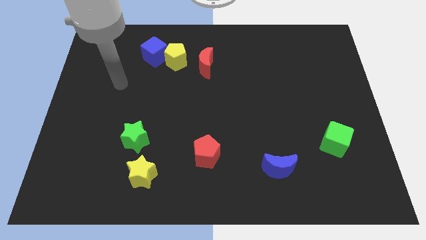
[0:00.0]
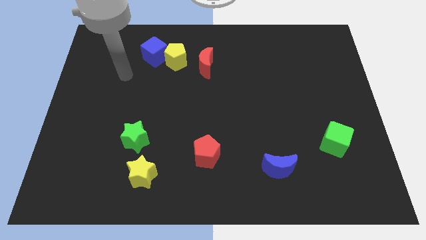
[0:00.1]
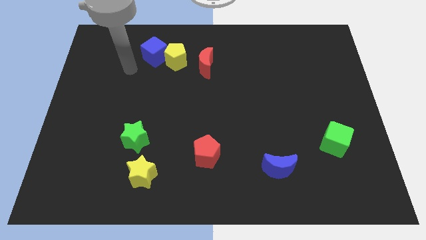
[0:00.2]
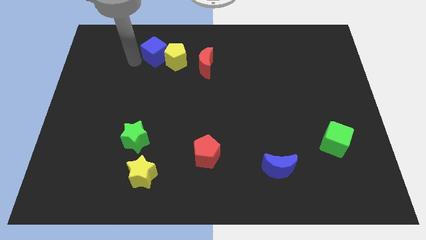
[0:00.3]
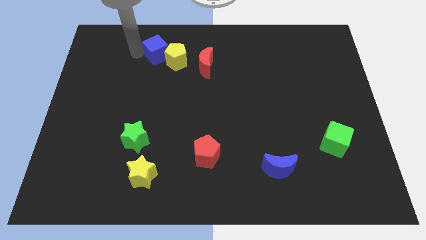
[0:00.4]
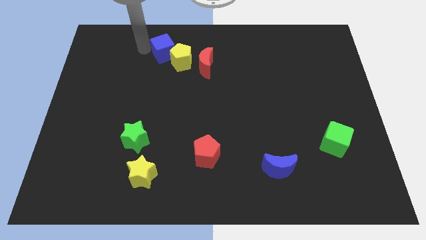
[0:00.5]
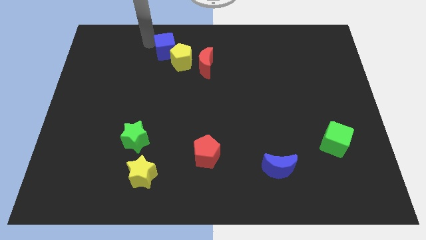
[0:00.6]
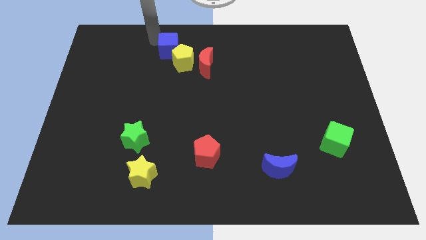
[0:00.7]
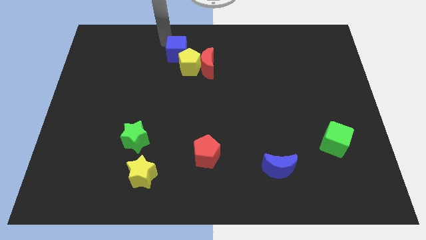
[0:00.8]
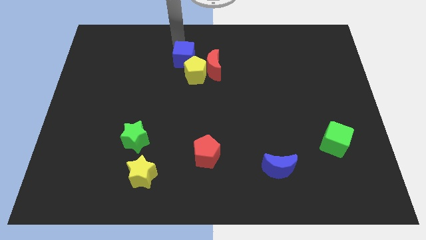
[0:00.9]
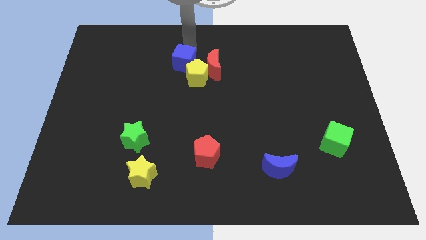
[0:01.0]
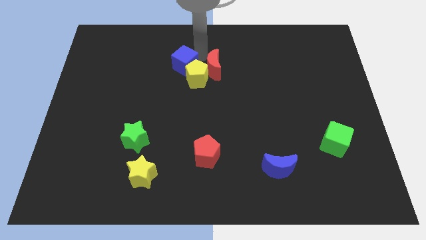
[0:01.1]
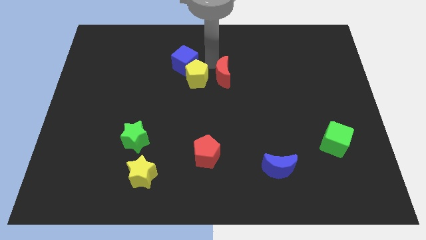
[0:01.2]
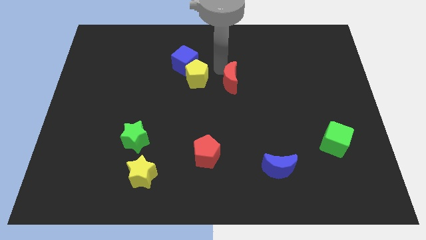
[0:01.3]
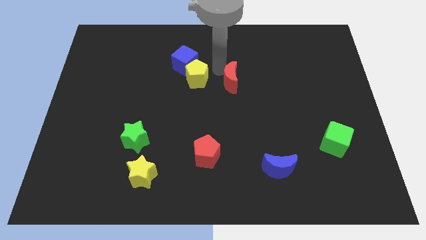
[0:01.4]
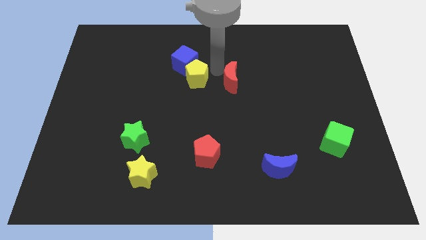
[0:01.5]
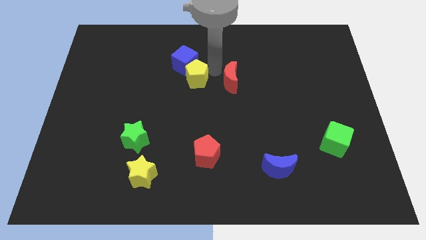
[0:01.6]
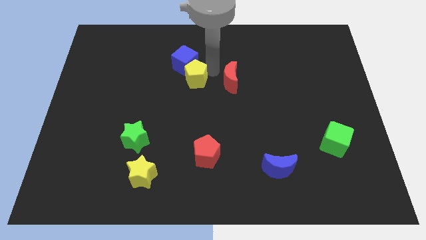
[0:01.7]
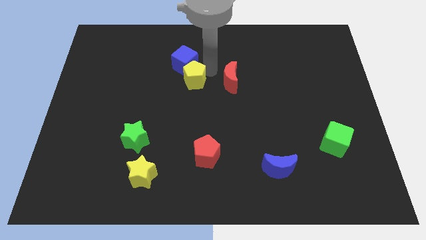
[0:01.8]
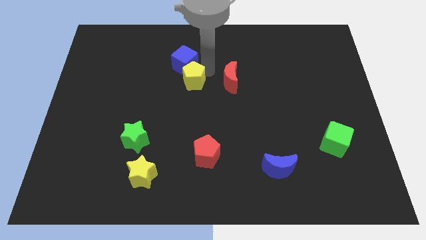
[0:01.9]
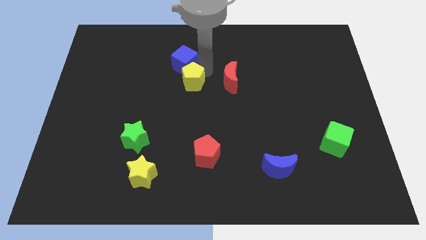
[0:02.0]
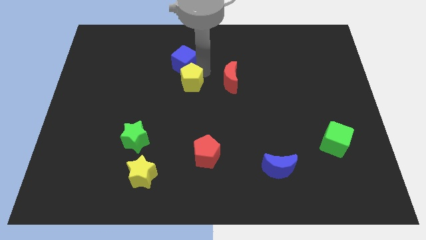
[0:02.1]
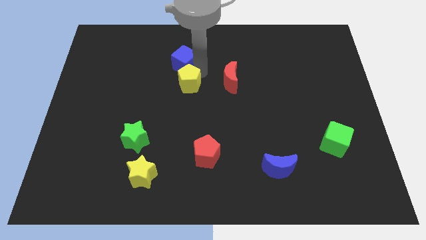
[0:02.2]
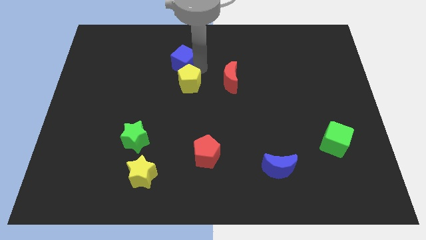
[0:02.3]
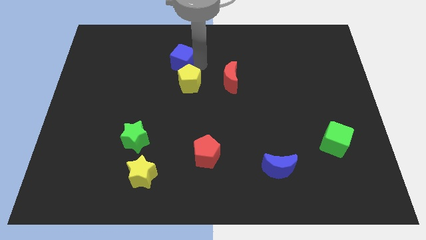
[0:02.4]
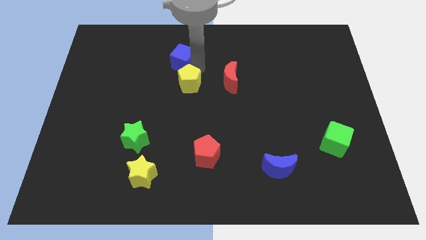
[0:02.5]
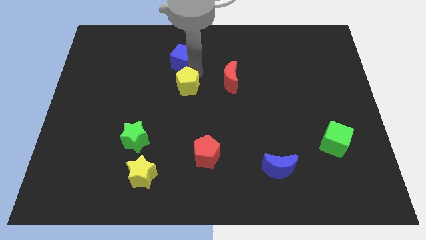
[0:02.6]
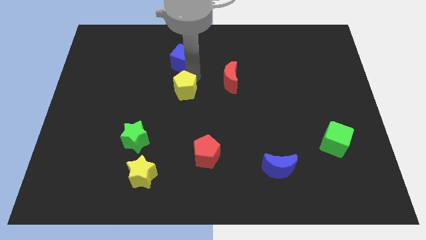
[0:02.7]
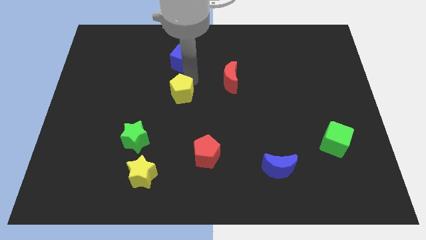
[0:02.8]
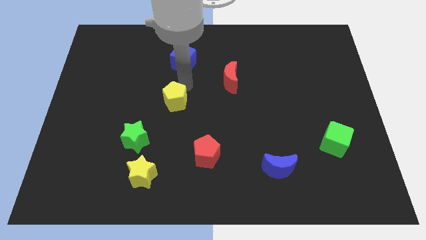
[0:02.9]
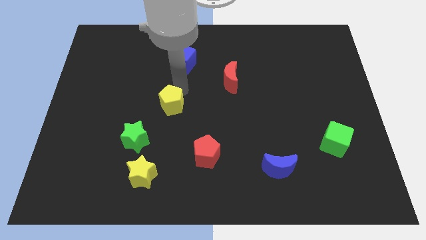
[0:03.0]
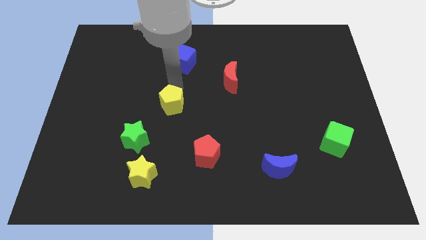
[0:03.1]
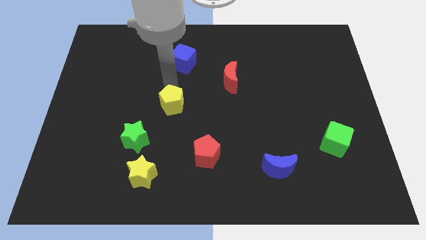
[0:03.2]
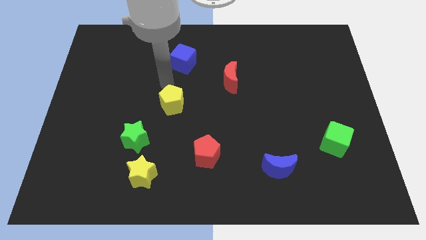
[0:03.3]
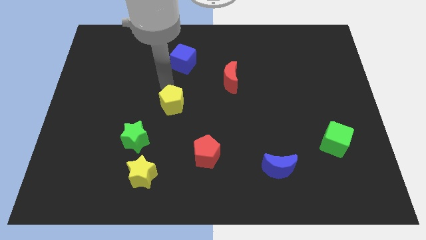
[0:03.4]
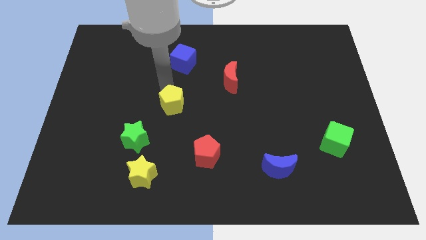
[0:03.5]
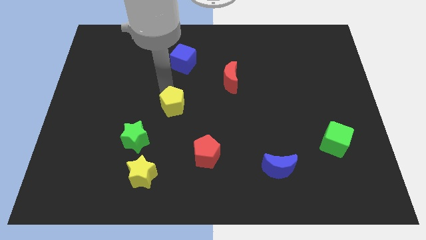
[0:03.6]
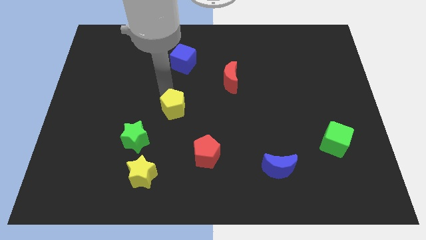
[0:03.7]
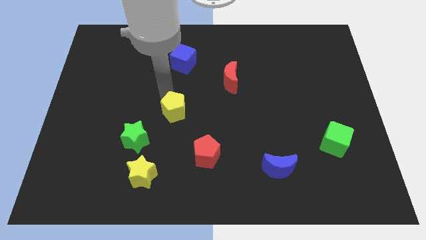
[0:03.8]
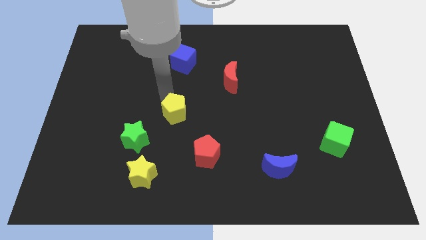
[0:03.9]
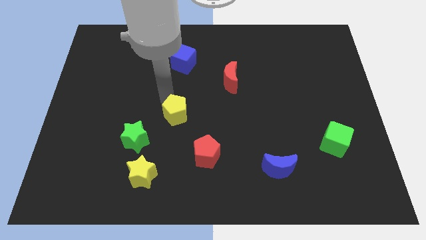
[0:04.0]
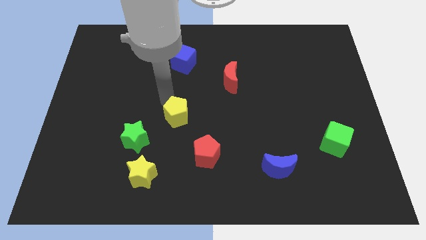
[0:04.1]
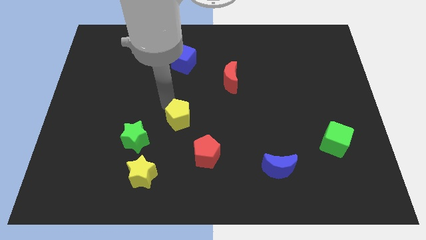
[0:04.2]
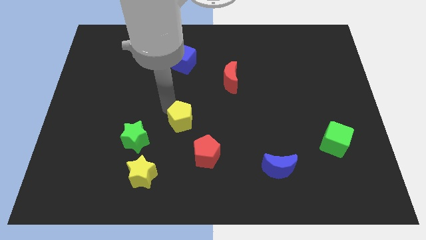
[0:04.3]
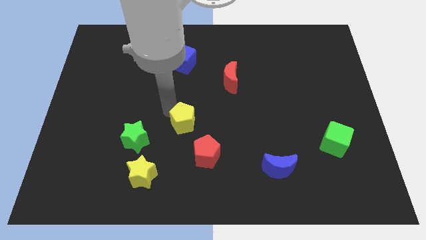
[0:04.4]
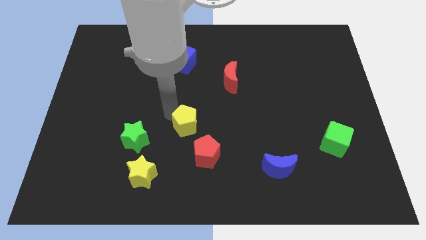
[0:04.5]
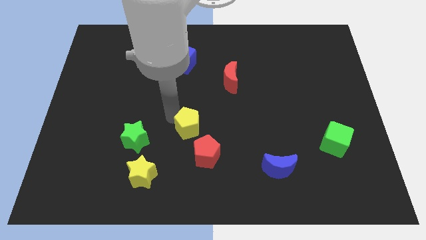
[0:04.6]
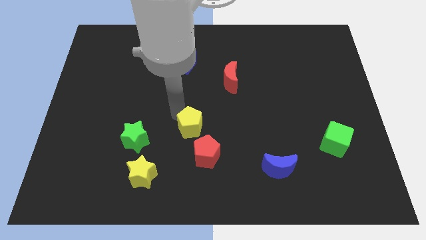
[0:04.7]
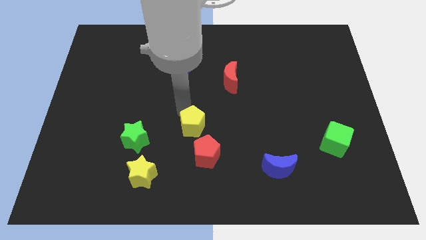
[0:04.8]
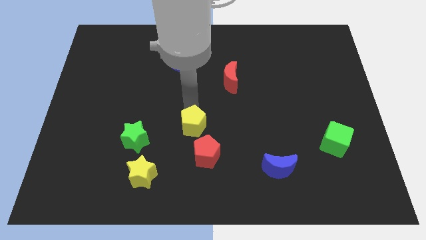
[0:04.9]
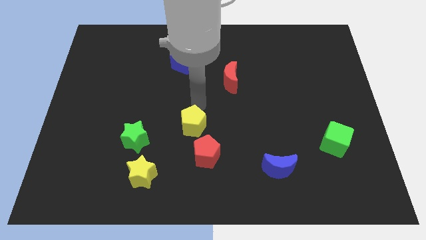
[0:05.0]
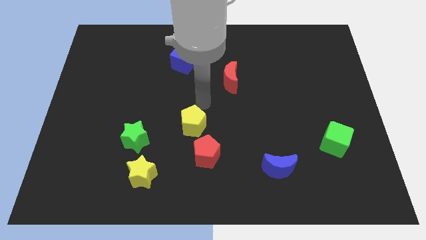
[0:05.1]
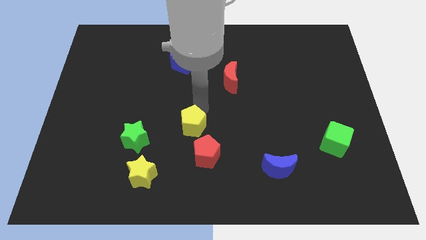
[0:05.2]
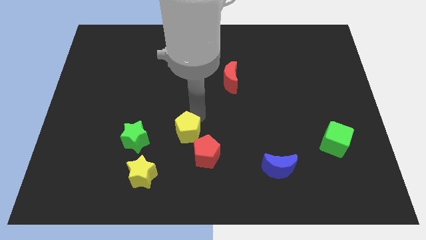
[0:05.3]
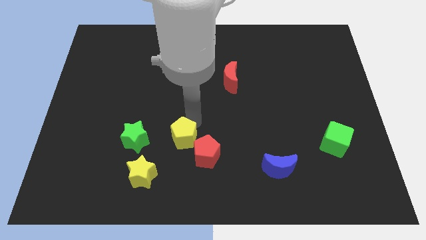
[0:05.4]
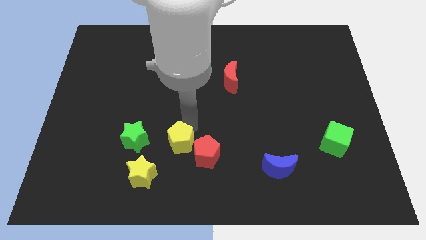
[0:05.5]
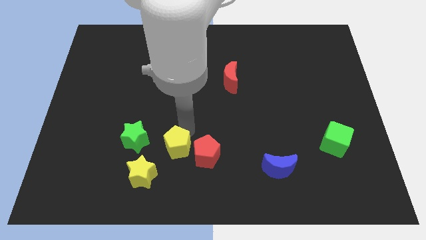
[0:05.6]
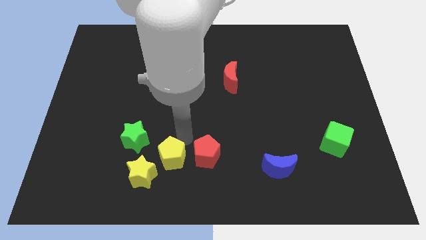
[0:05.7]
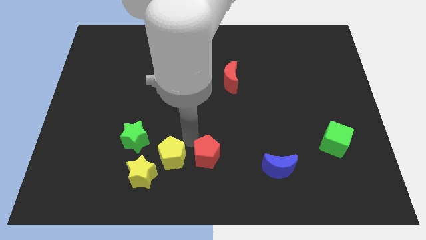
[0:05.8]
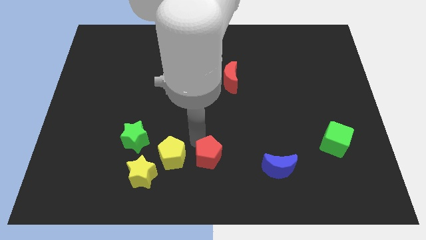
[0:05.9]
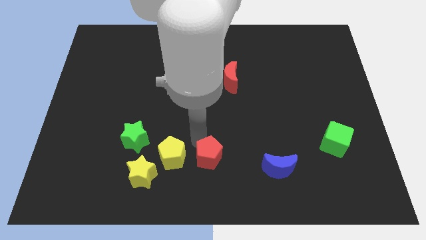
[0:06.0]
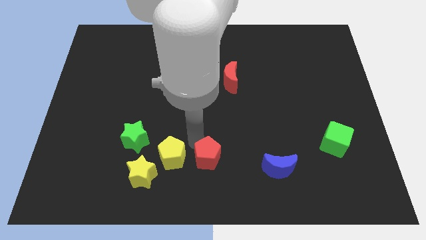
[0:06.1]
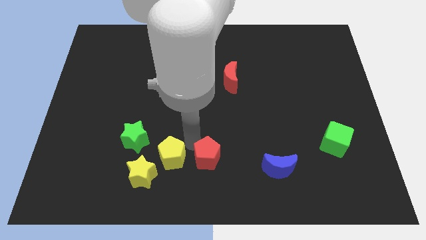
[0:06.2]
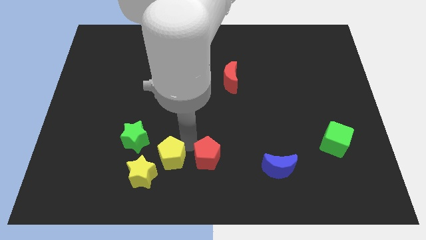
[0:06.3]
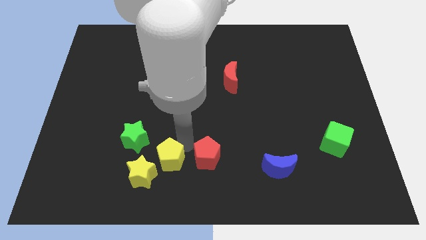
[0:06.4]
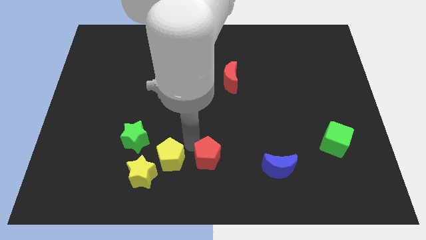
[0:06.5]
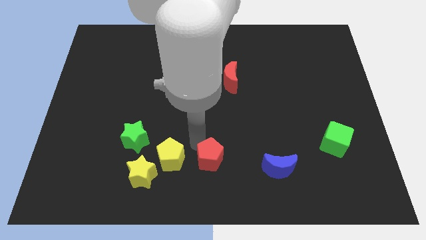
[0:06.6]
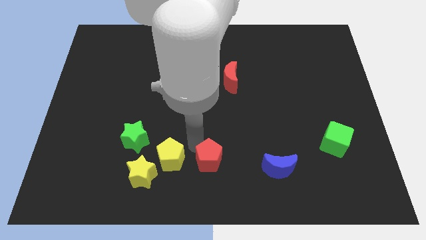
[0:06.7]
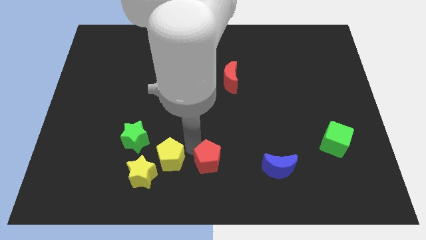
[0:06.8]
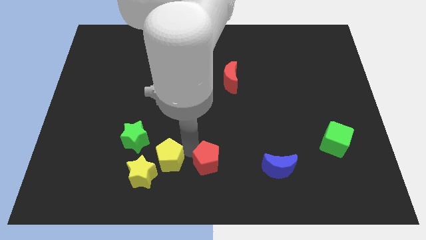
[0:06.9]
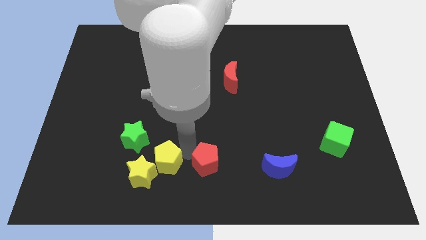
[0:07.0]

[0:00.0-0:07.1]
move the yellow pentagon towards the yellow star

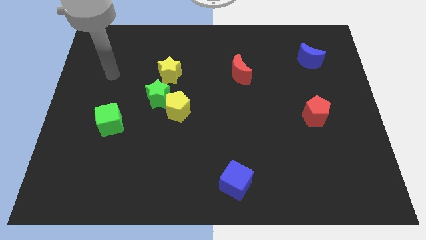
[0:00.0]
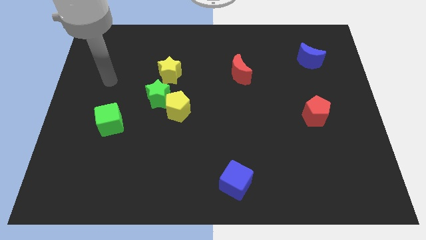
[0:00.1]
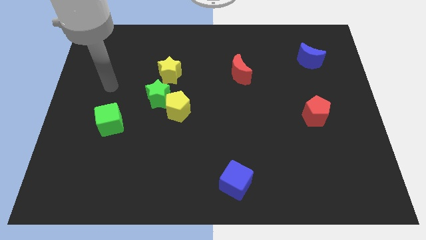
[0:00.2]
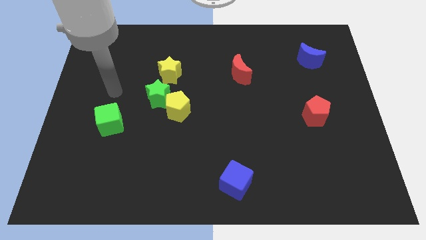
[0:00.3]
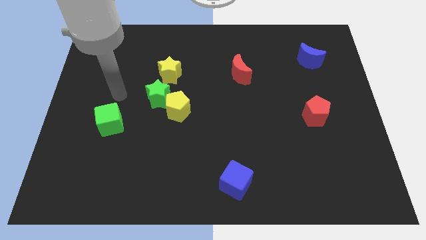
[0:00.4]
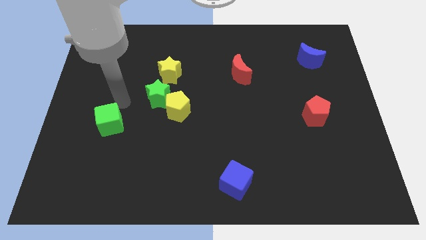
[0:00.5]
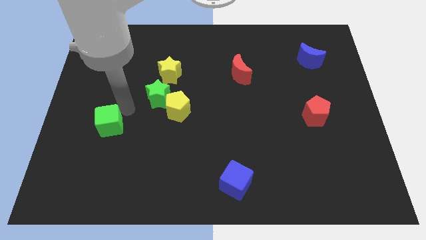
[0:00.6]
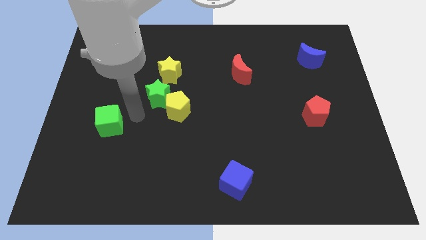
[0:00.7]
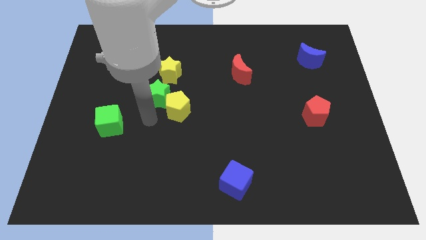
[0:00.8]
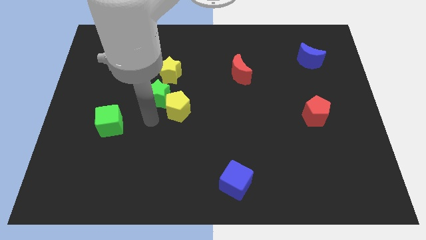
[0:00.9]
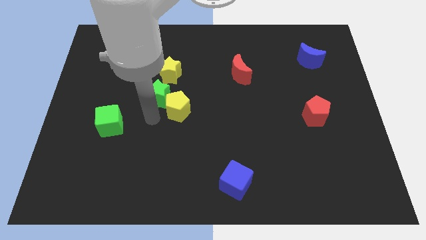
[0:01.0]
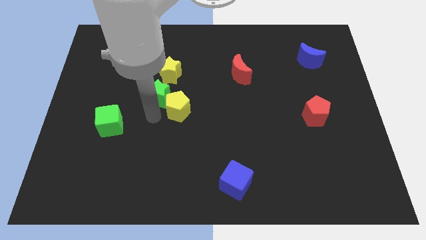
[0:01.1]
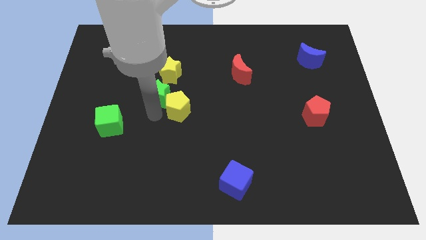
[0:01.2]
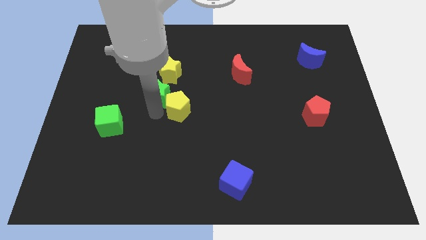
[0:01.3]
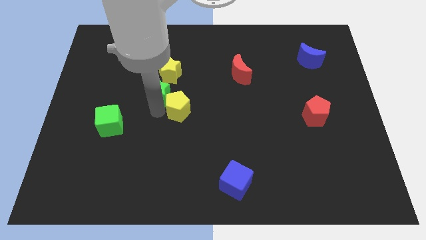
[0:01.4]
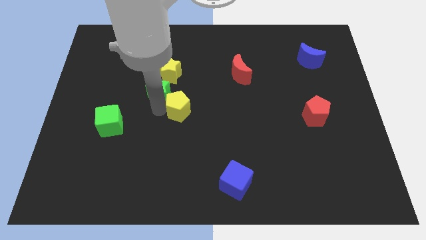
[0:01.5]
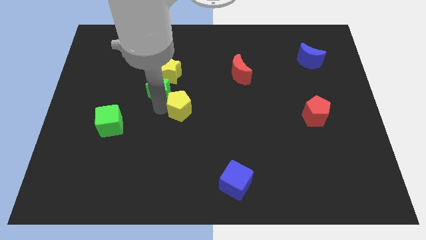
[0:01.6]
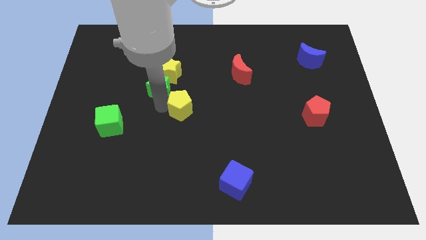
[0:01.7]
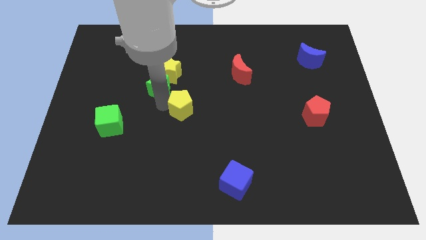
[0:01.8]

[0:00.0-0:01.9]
push the green star to the yellow star
